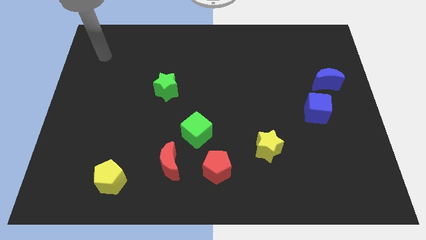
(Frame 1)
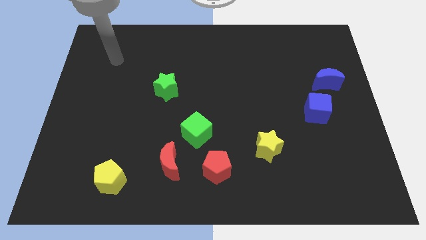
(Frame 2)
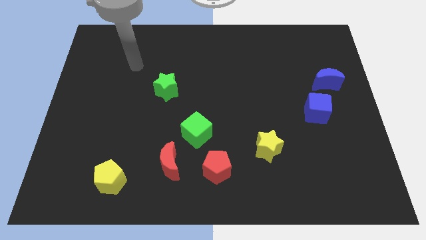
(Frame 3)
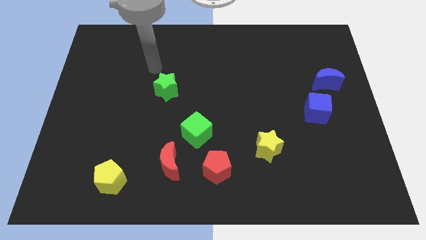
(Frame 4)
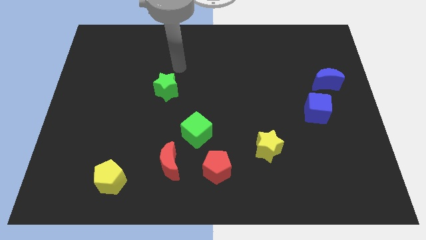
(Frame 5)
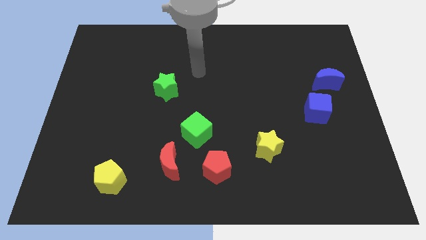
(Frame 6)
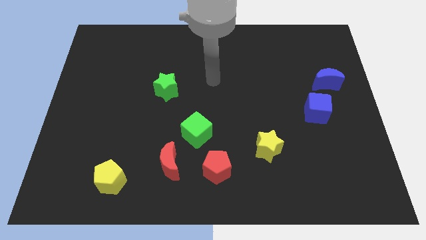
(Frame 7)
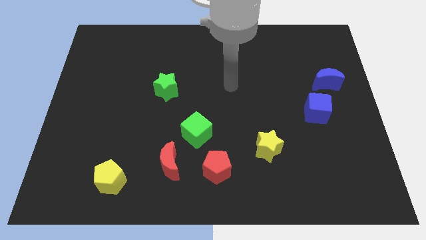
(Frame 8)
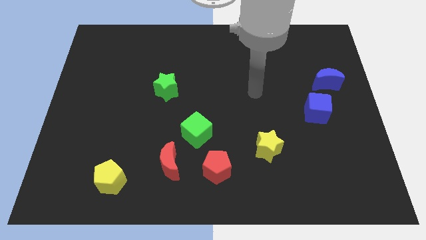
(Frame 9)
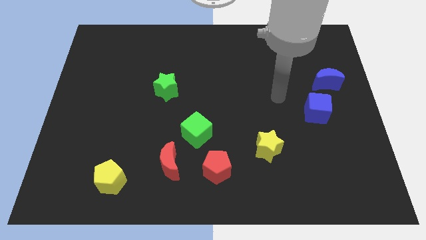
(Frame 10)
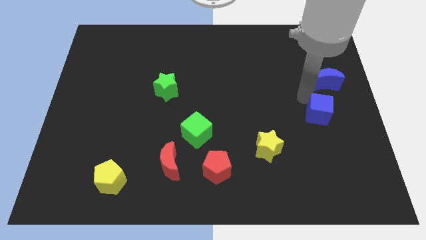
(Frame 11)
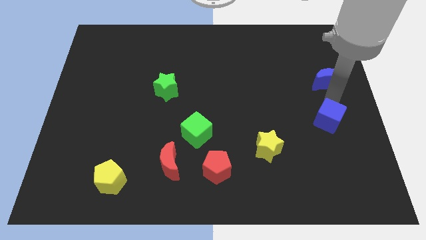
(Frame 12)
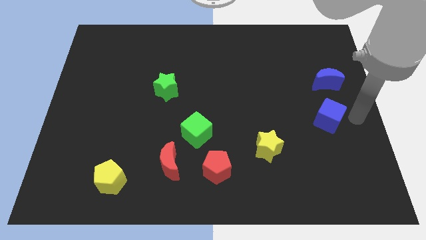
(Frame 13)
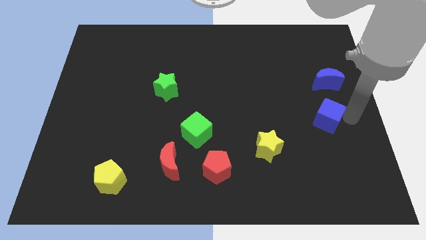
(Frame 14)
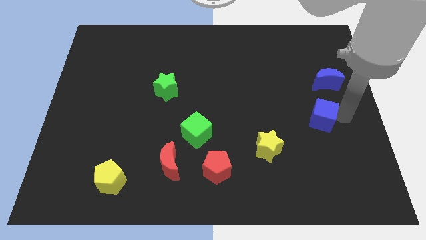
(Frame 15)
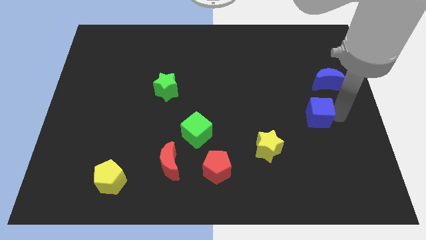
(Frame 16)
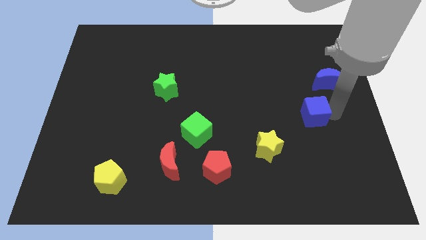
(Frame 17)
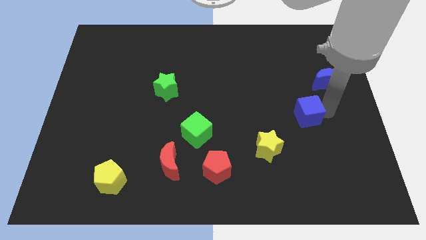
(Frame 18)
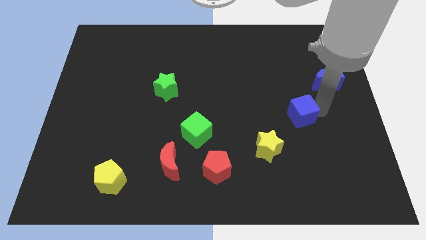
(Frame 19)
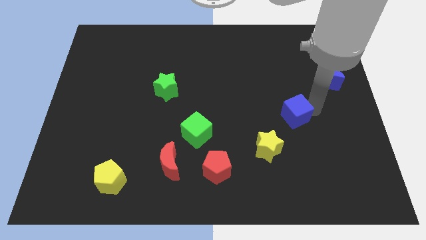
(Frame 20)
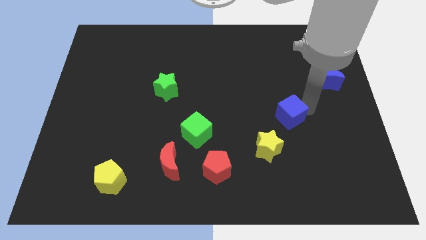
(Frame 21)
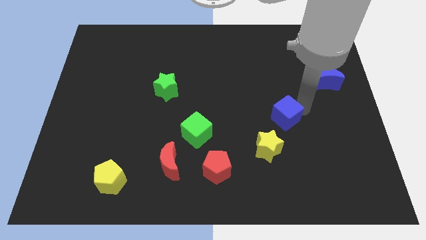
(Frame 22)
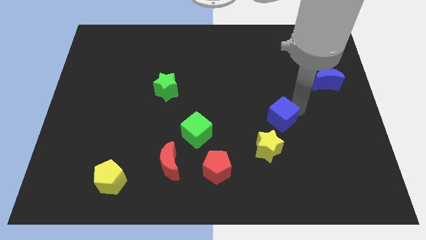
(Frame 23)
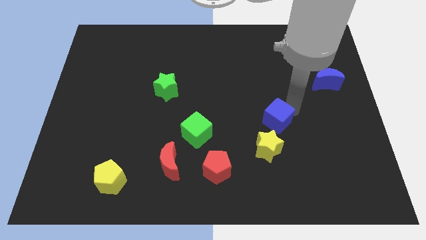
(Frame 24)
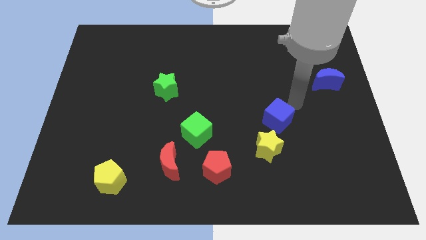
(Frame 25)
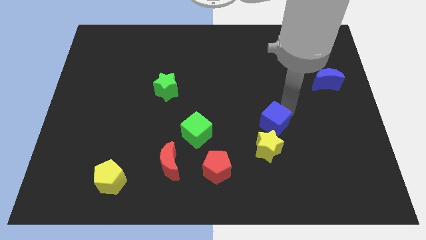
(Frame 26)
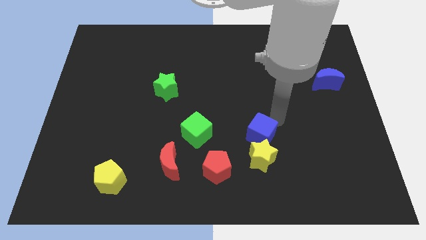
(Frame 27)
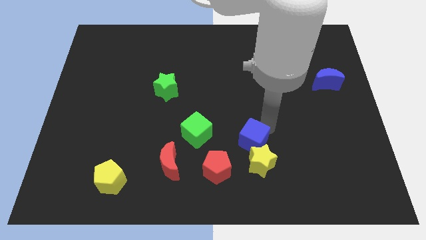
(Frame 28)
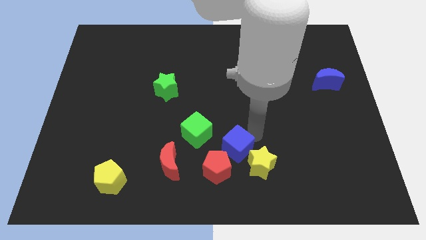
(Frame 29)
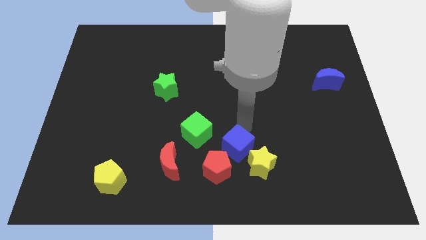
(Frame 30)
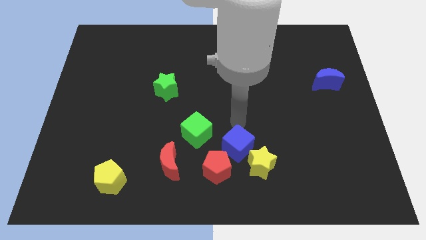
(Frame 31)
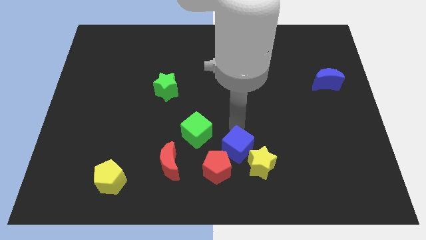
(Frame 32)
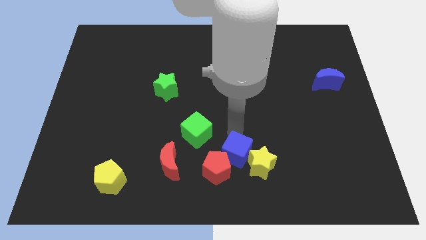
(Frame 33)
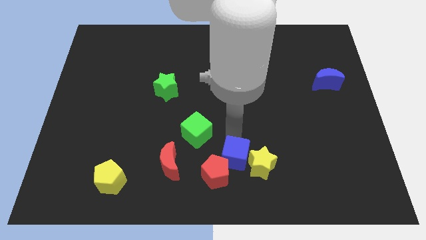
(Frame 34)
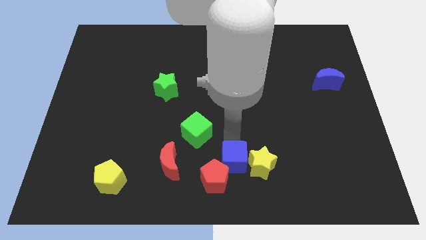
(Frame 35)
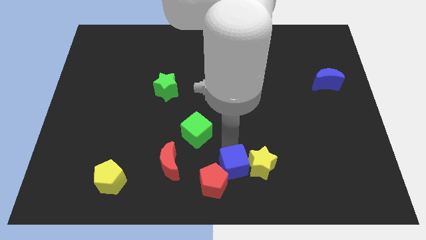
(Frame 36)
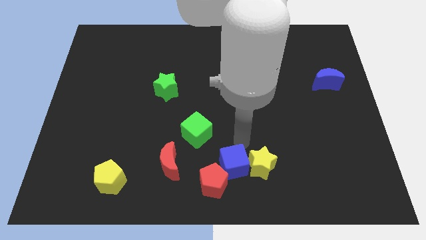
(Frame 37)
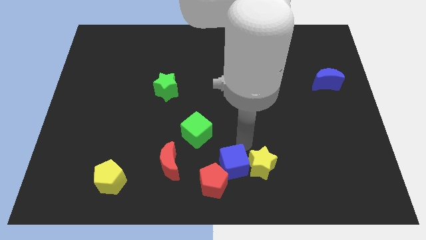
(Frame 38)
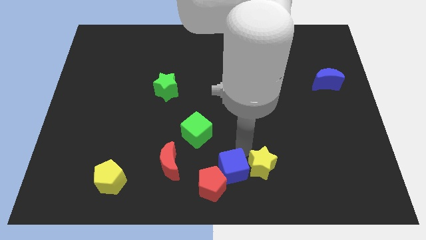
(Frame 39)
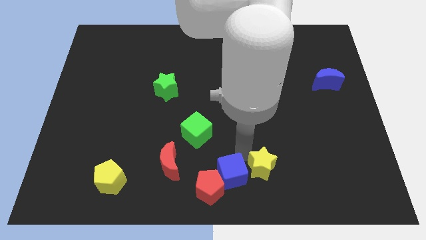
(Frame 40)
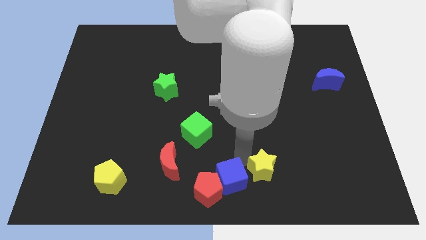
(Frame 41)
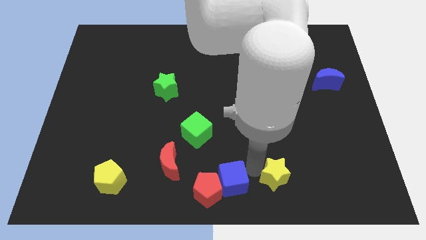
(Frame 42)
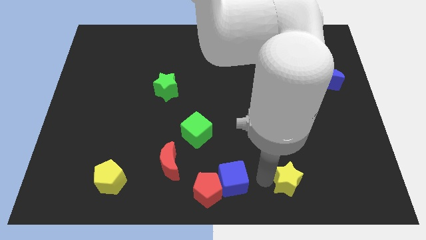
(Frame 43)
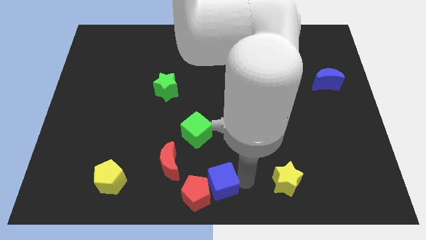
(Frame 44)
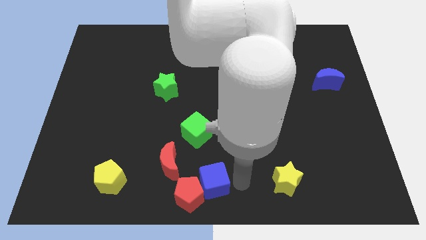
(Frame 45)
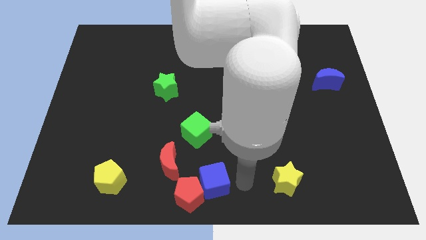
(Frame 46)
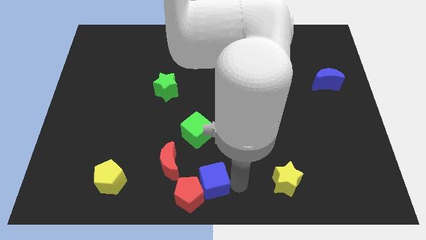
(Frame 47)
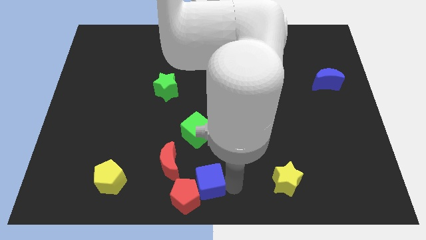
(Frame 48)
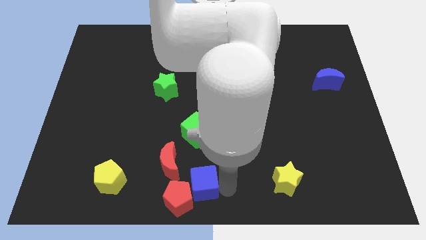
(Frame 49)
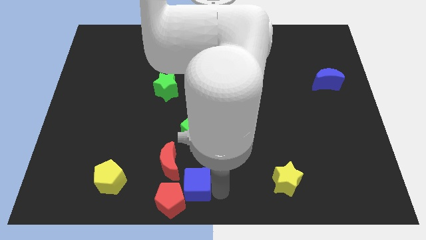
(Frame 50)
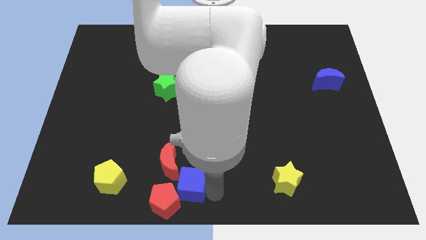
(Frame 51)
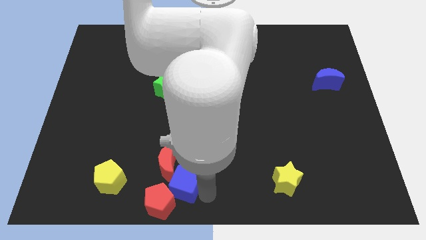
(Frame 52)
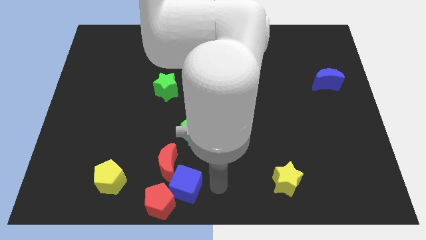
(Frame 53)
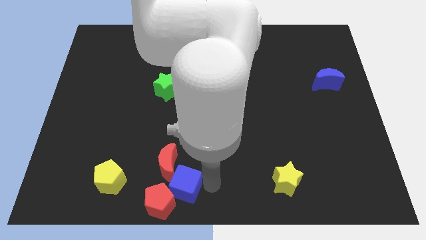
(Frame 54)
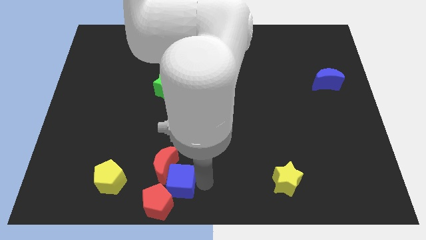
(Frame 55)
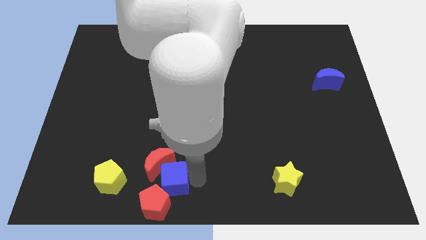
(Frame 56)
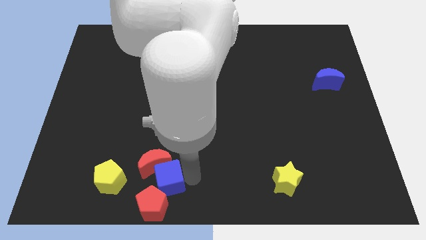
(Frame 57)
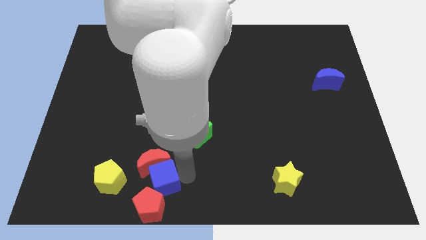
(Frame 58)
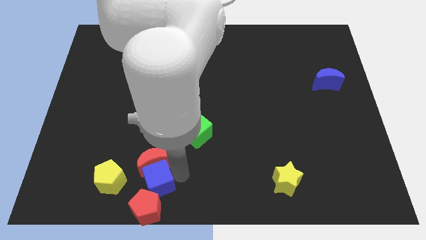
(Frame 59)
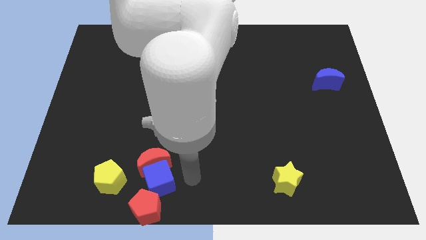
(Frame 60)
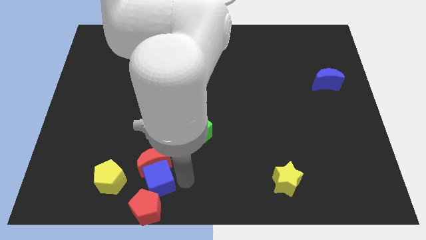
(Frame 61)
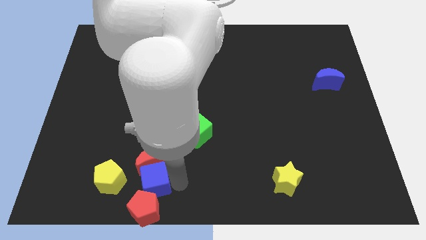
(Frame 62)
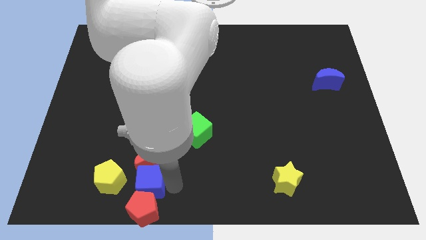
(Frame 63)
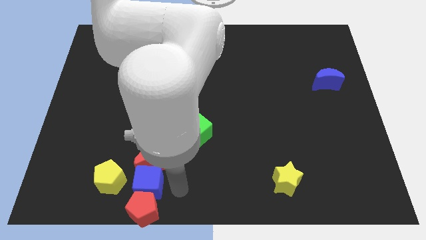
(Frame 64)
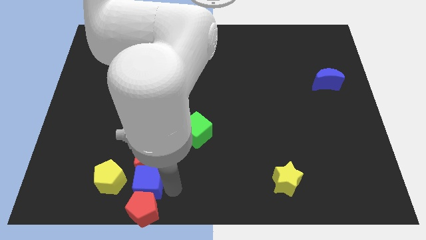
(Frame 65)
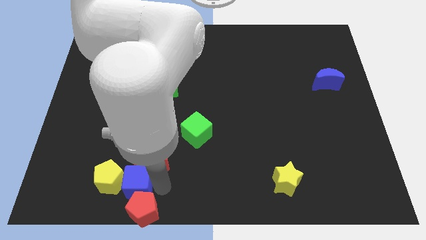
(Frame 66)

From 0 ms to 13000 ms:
move the blue cube next to the yellow pentagon
